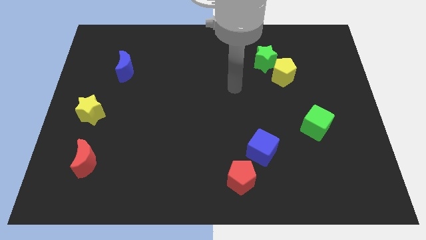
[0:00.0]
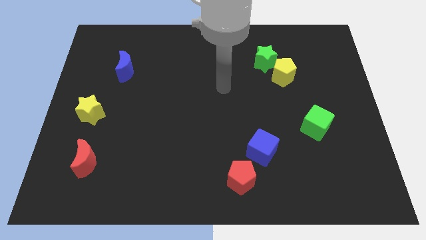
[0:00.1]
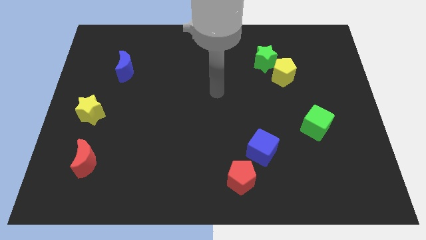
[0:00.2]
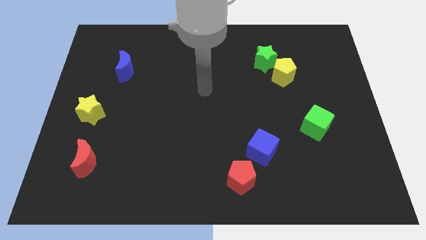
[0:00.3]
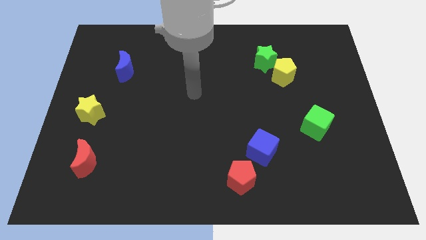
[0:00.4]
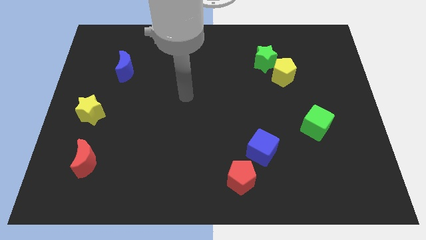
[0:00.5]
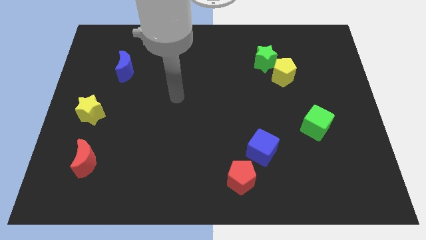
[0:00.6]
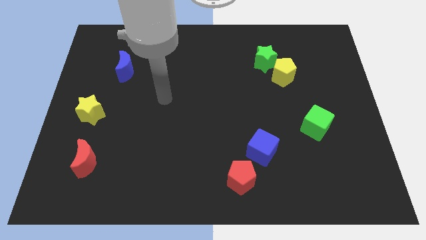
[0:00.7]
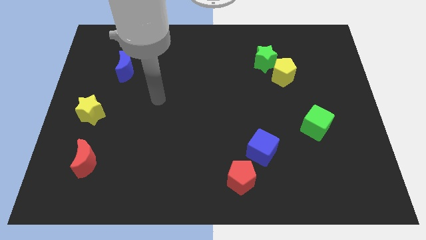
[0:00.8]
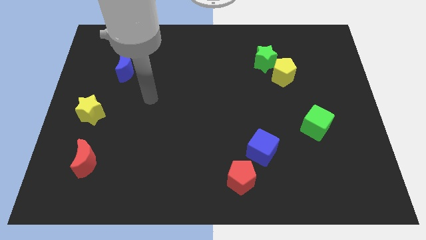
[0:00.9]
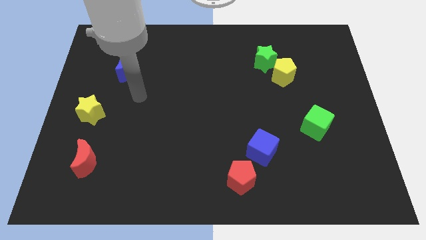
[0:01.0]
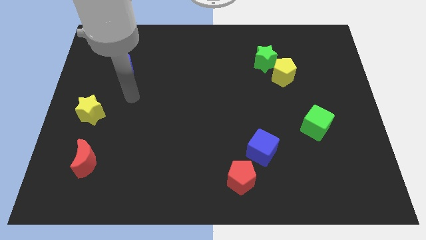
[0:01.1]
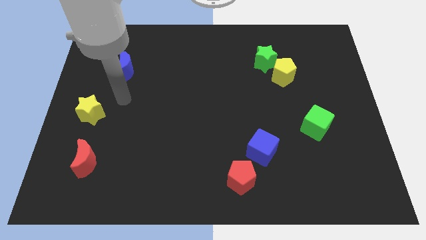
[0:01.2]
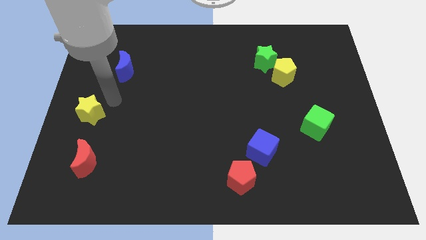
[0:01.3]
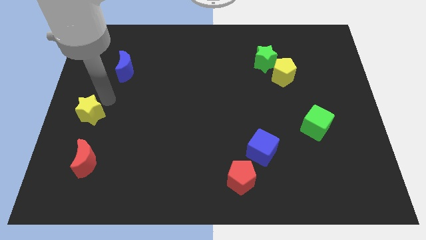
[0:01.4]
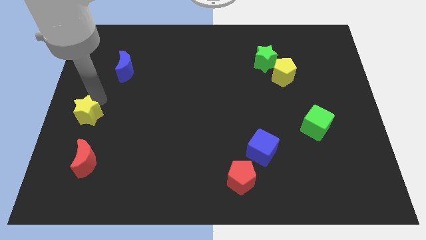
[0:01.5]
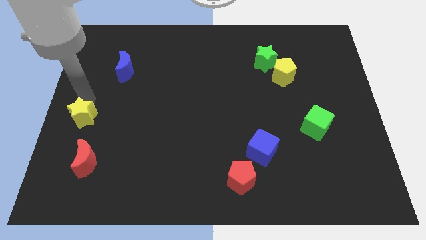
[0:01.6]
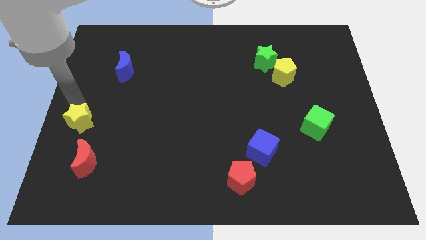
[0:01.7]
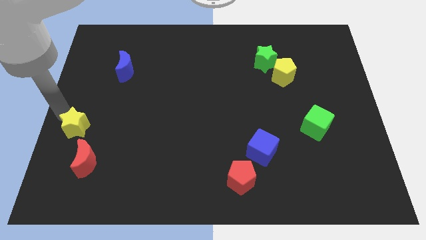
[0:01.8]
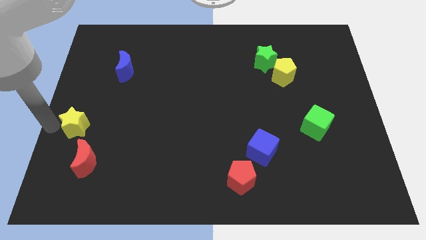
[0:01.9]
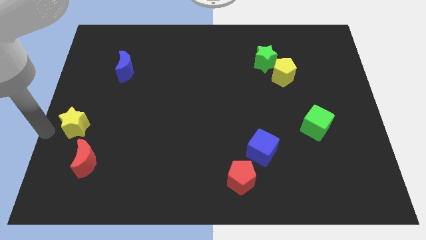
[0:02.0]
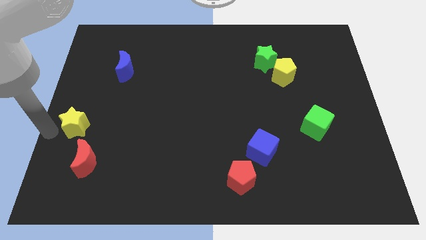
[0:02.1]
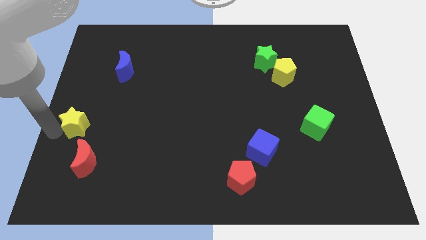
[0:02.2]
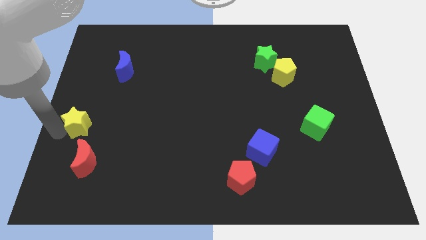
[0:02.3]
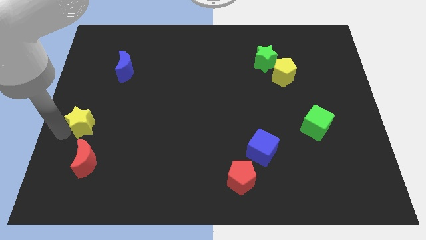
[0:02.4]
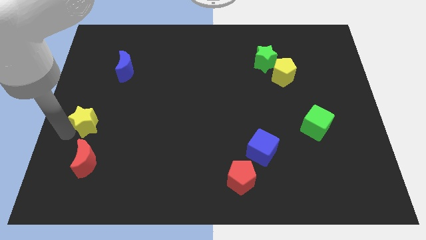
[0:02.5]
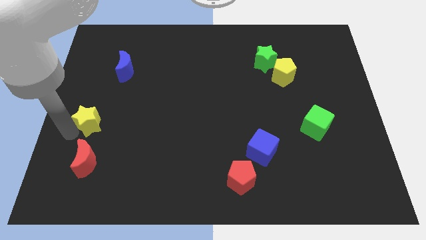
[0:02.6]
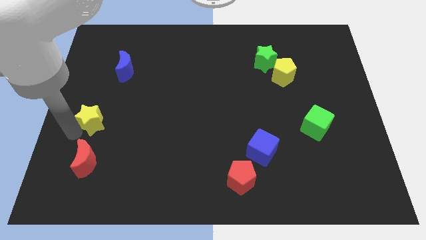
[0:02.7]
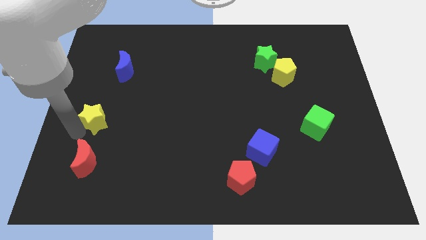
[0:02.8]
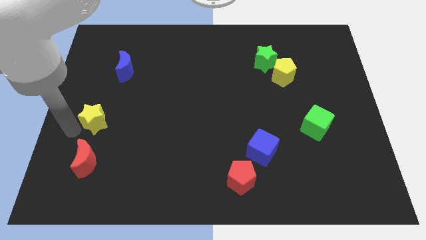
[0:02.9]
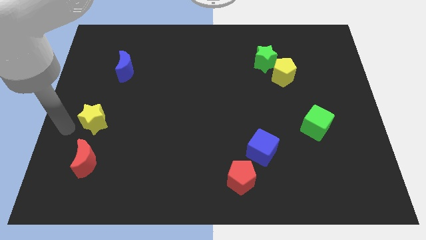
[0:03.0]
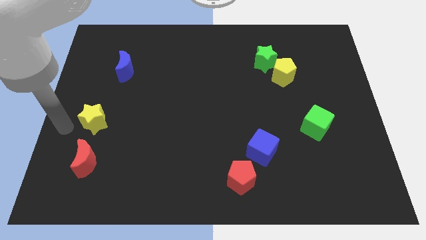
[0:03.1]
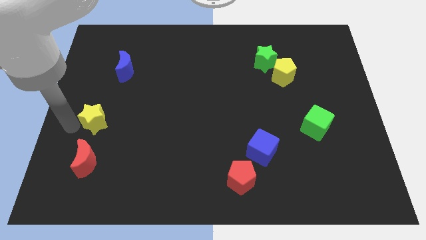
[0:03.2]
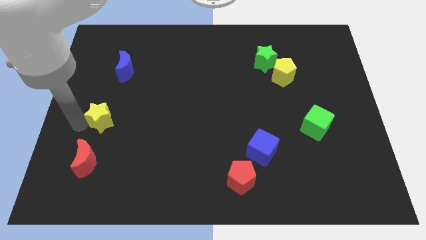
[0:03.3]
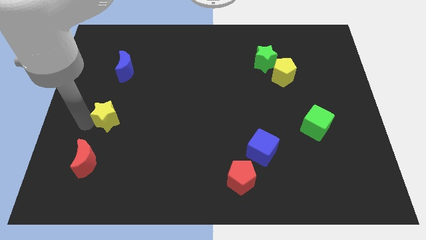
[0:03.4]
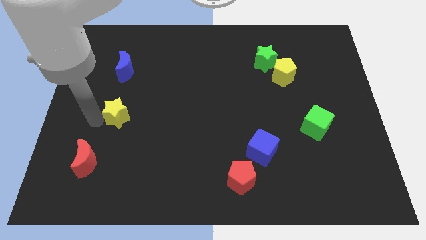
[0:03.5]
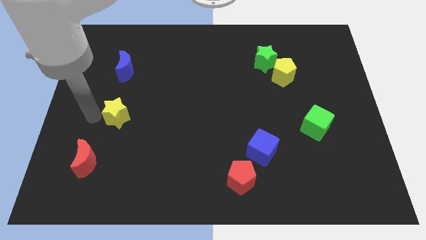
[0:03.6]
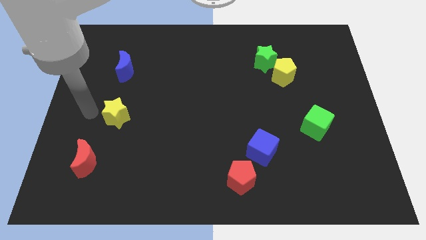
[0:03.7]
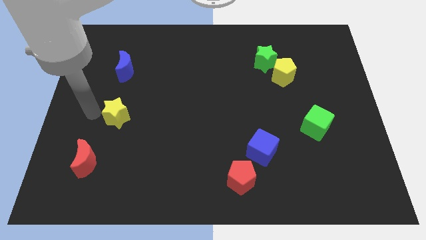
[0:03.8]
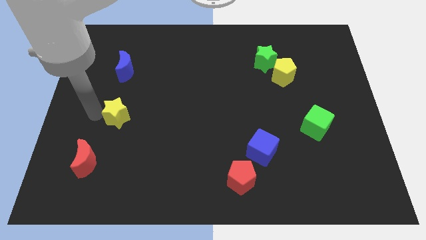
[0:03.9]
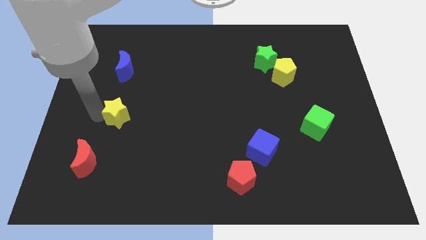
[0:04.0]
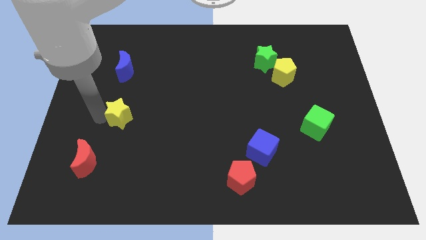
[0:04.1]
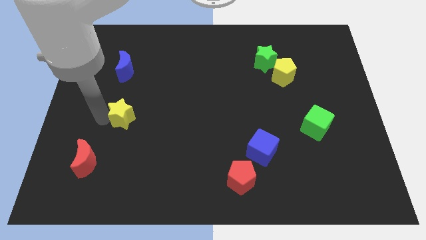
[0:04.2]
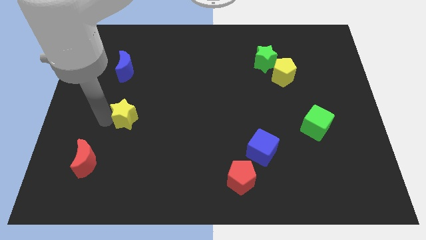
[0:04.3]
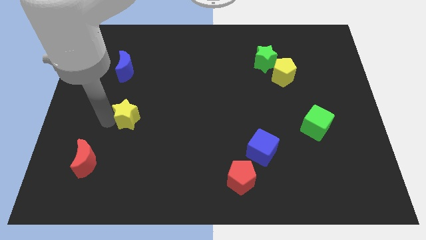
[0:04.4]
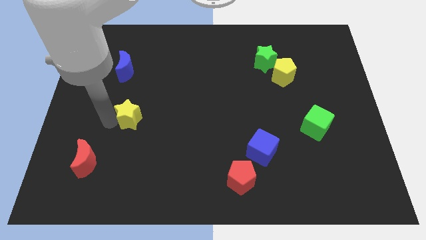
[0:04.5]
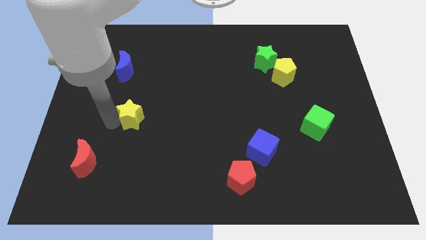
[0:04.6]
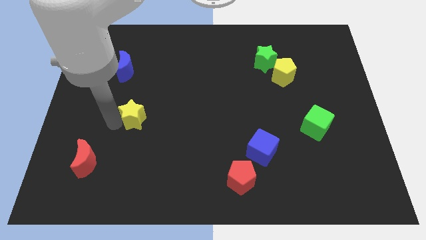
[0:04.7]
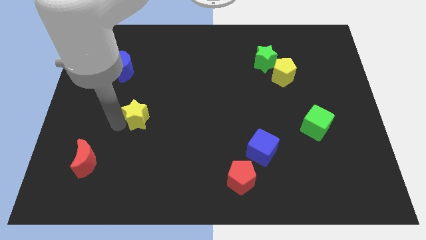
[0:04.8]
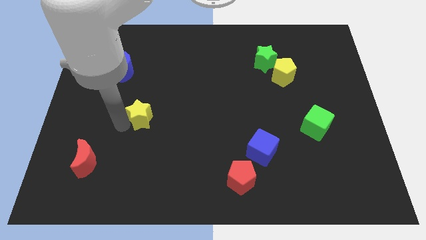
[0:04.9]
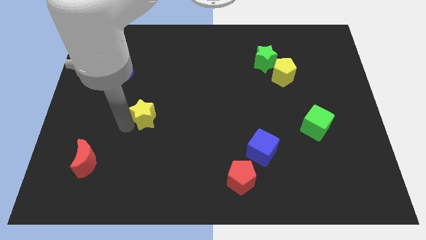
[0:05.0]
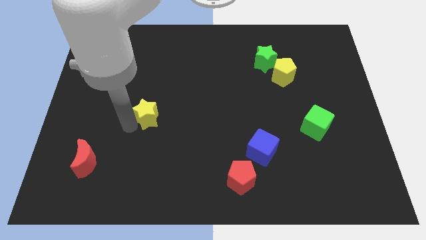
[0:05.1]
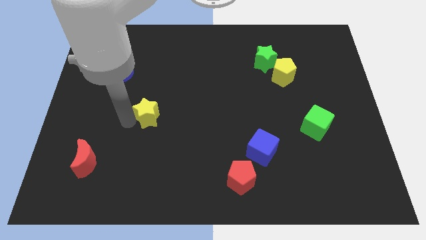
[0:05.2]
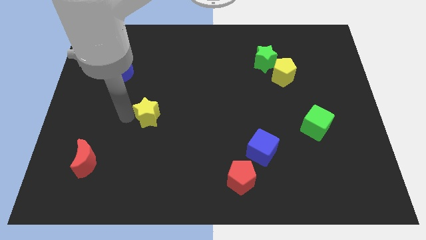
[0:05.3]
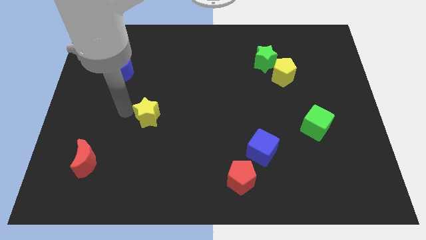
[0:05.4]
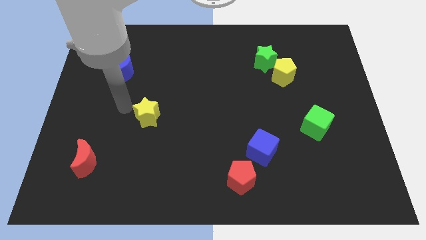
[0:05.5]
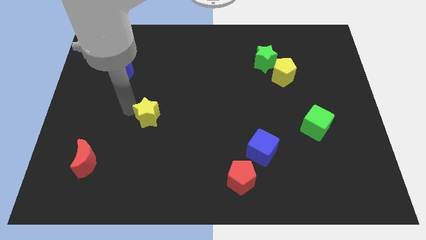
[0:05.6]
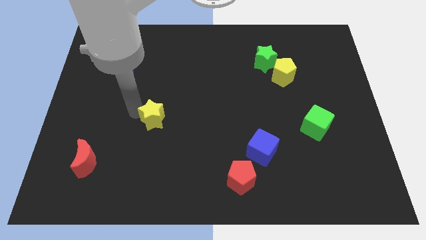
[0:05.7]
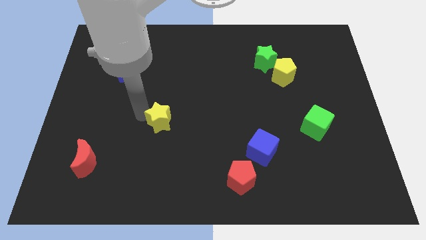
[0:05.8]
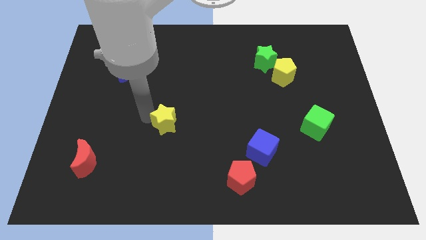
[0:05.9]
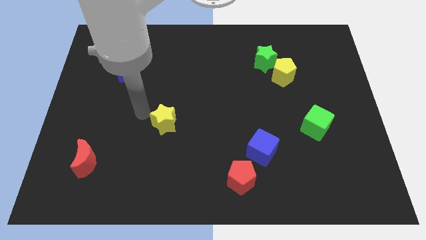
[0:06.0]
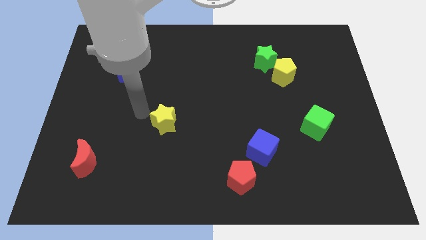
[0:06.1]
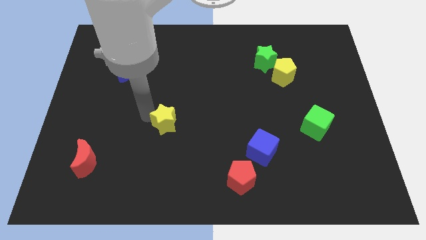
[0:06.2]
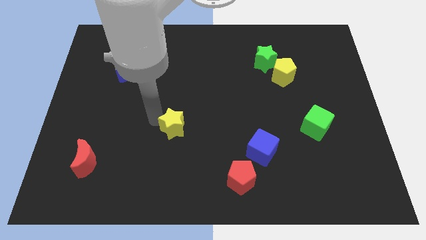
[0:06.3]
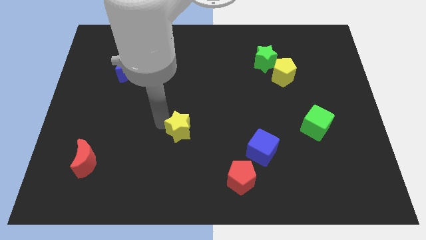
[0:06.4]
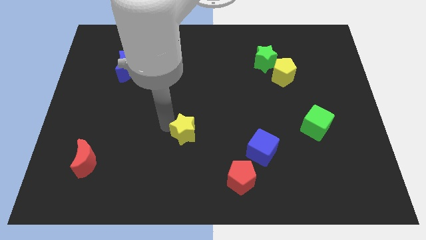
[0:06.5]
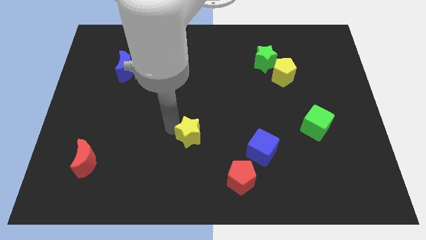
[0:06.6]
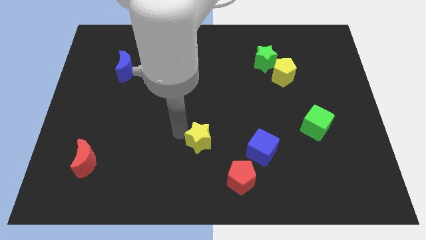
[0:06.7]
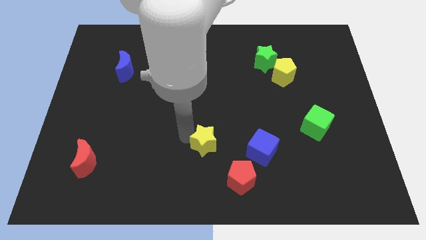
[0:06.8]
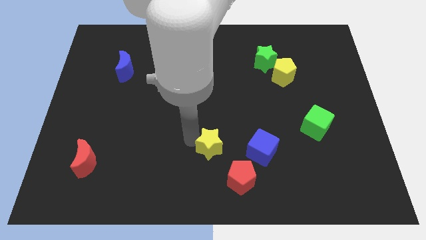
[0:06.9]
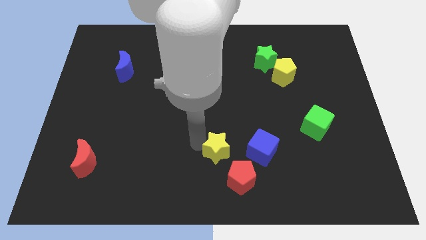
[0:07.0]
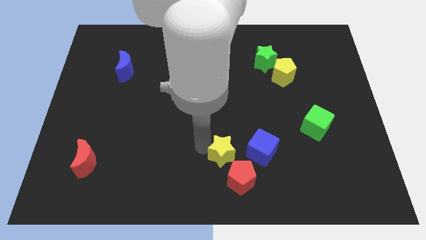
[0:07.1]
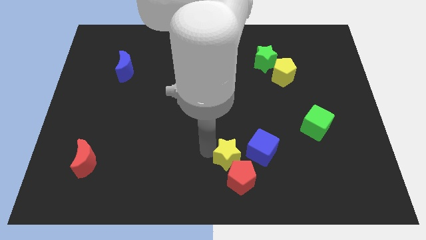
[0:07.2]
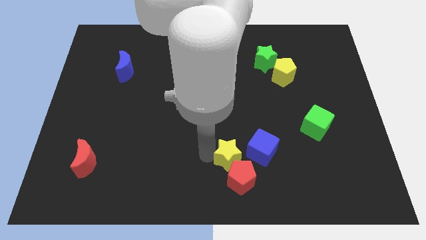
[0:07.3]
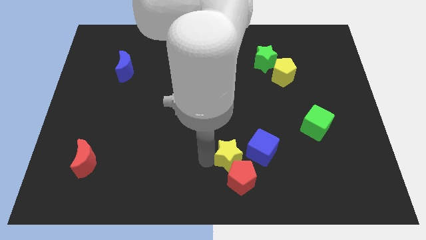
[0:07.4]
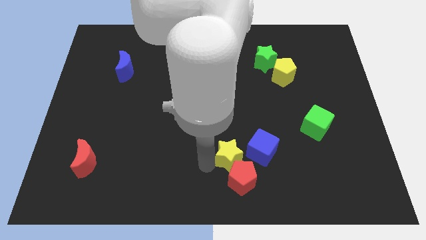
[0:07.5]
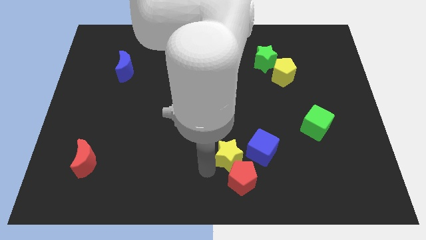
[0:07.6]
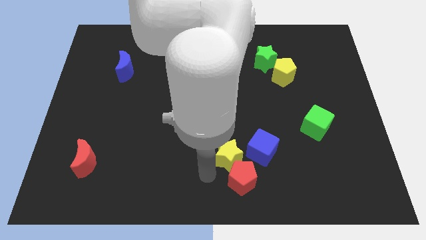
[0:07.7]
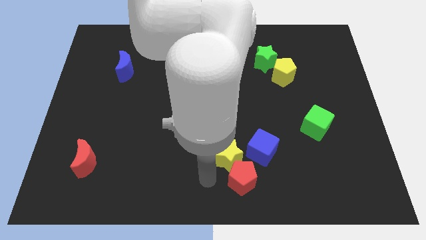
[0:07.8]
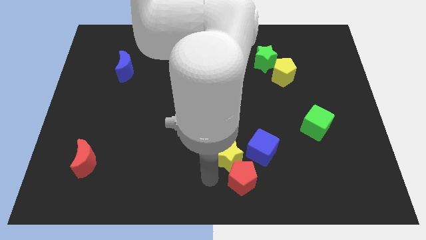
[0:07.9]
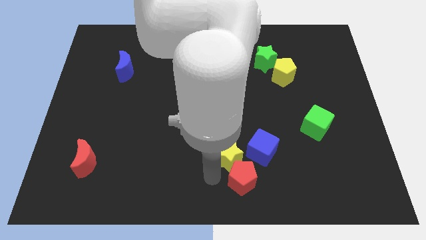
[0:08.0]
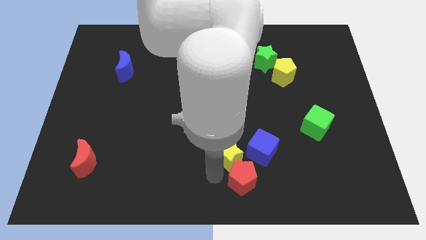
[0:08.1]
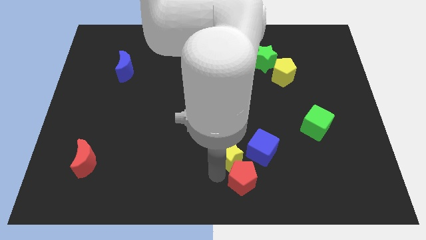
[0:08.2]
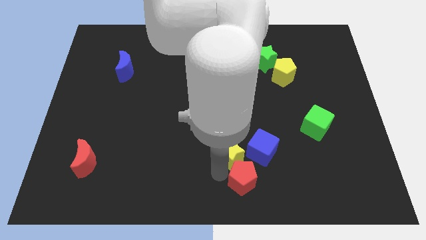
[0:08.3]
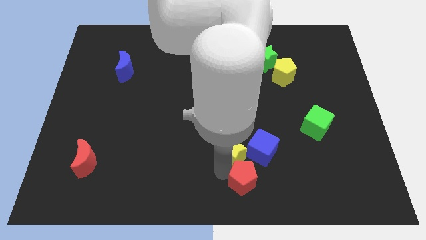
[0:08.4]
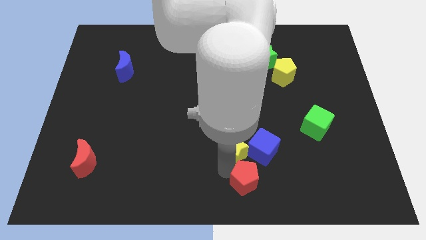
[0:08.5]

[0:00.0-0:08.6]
slide the yellow star next to the blue cube
